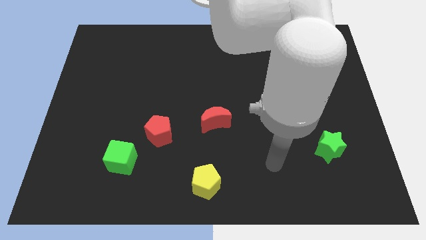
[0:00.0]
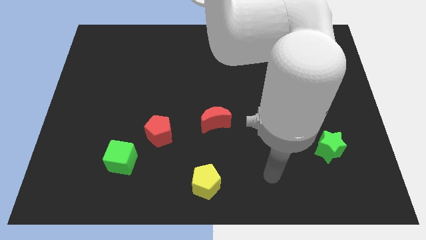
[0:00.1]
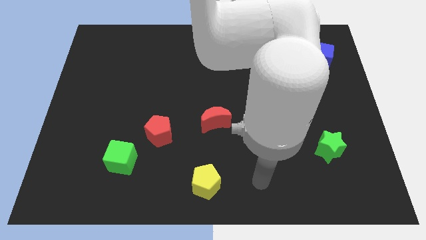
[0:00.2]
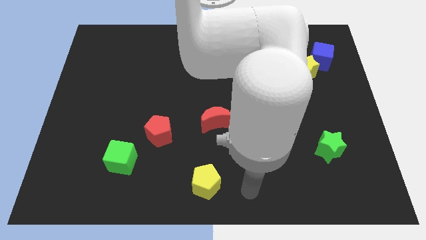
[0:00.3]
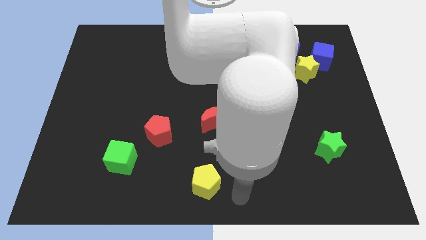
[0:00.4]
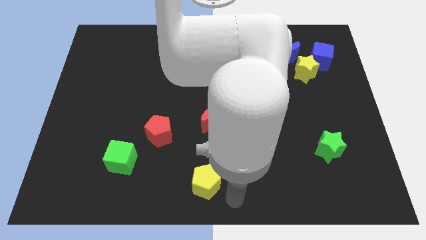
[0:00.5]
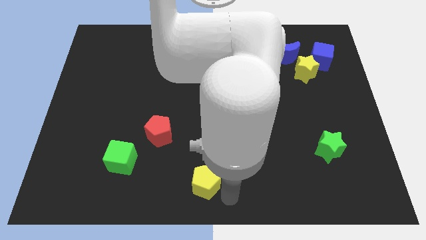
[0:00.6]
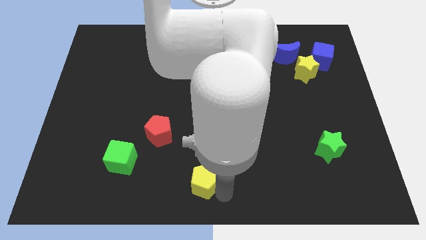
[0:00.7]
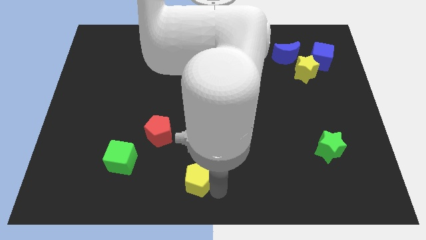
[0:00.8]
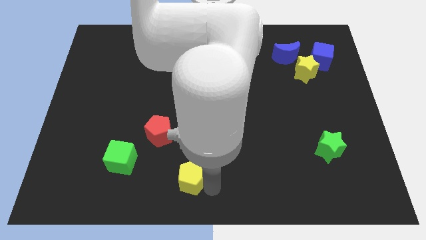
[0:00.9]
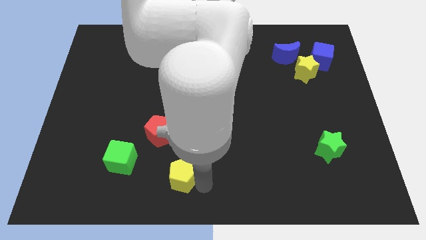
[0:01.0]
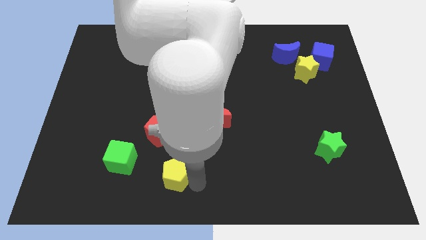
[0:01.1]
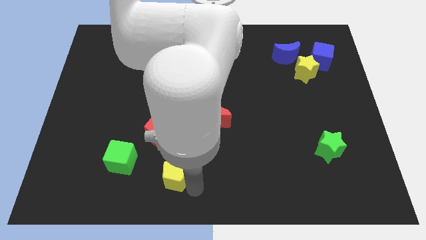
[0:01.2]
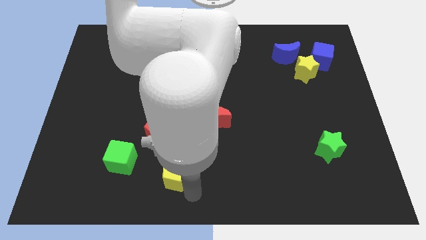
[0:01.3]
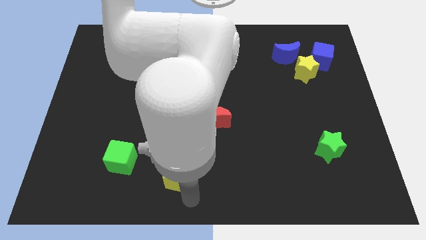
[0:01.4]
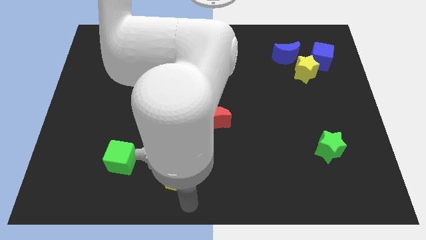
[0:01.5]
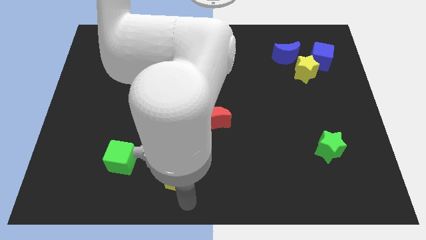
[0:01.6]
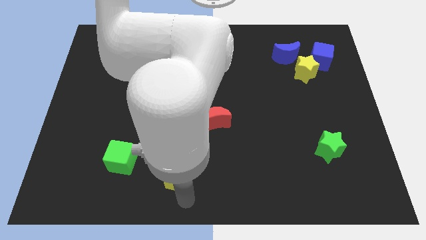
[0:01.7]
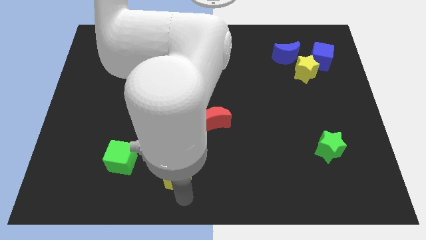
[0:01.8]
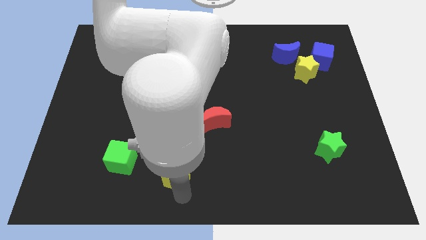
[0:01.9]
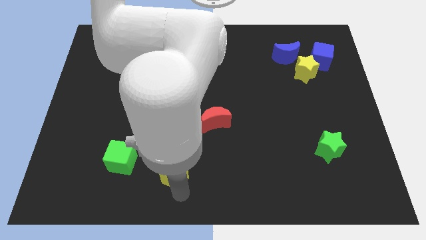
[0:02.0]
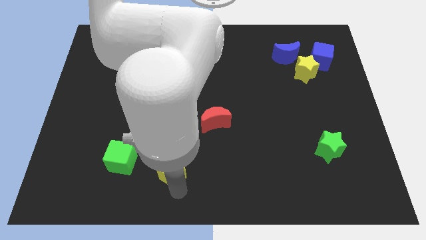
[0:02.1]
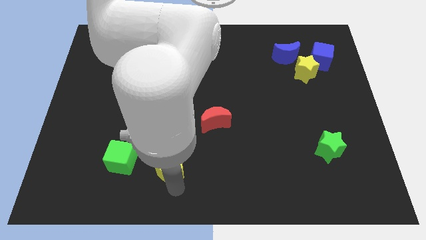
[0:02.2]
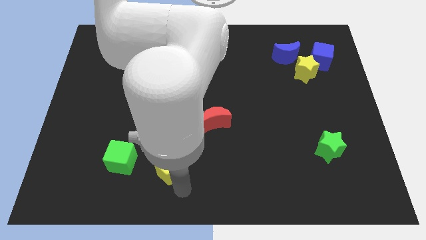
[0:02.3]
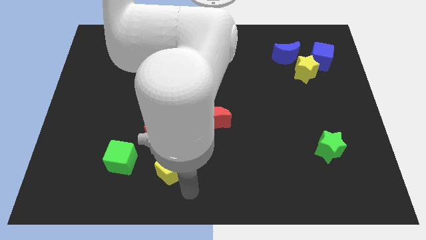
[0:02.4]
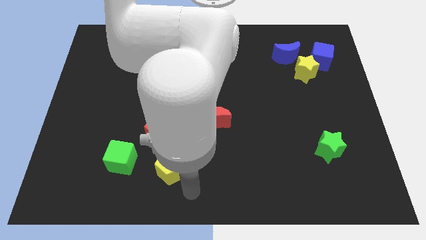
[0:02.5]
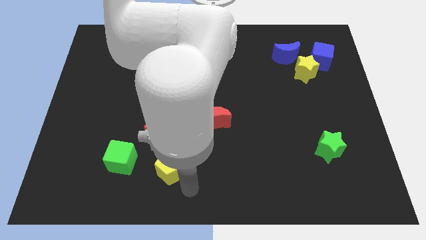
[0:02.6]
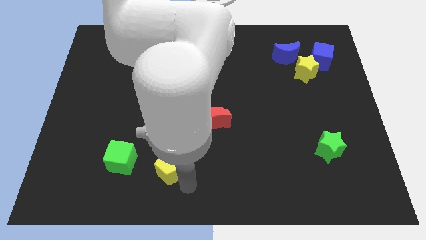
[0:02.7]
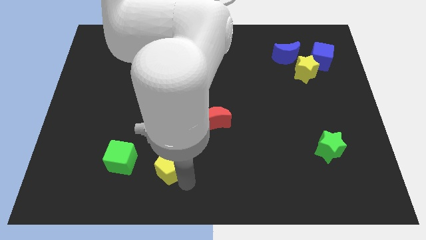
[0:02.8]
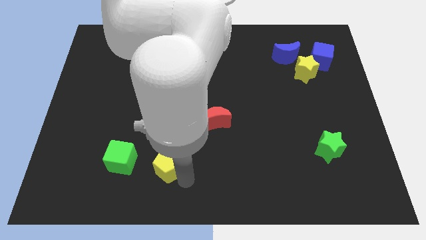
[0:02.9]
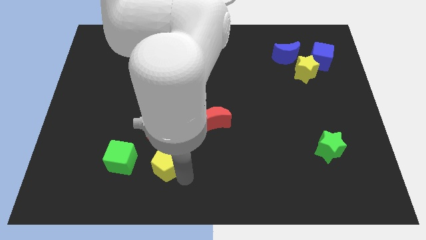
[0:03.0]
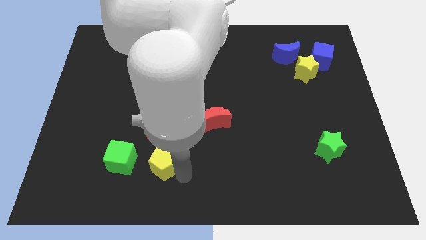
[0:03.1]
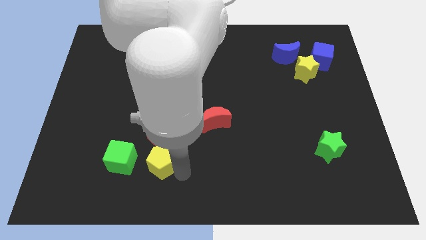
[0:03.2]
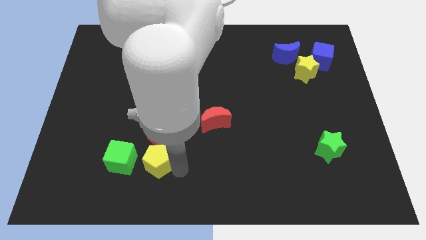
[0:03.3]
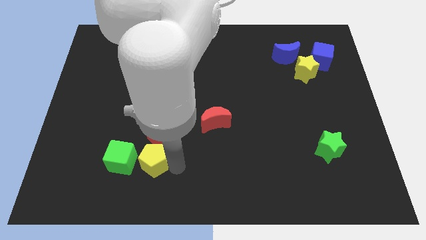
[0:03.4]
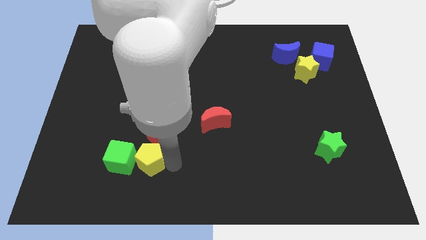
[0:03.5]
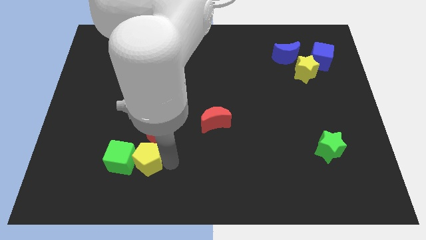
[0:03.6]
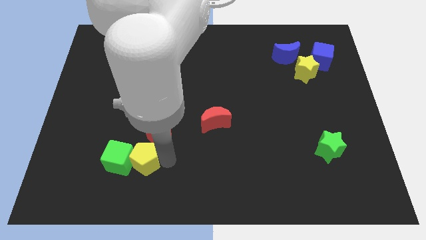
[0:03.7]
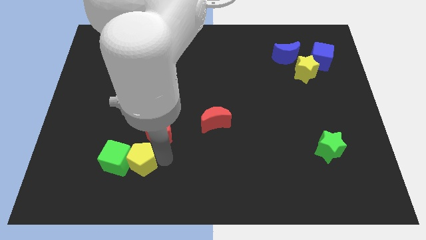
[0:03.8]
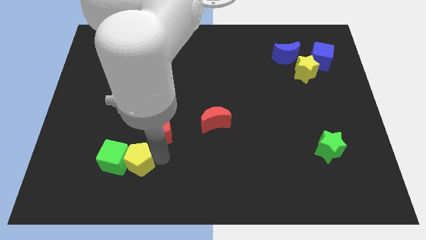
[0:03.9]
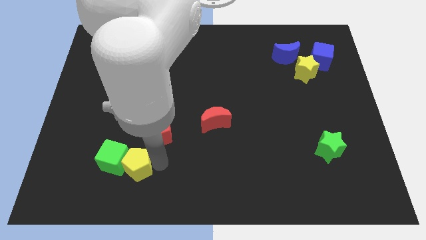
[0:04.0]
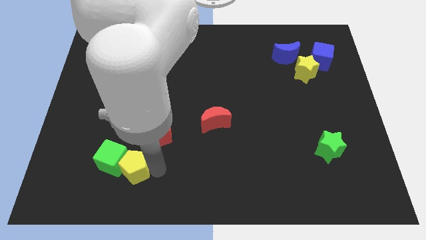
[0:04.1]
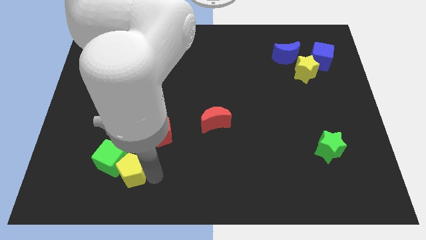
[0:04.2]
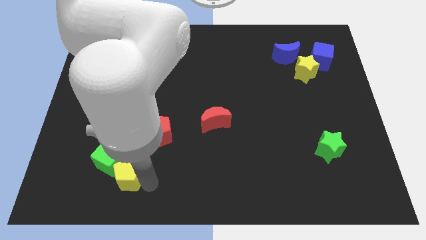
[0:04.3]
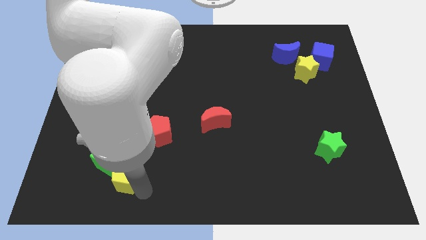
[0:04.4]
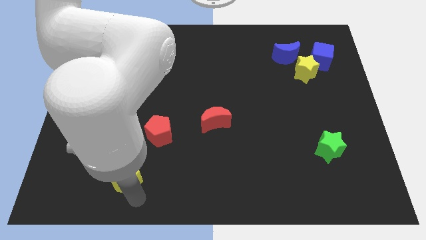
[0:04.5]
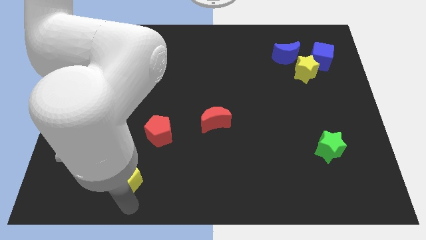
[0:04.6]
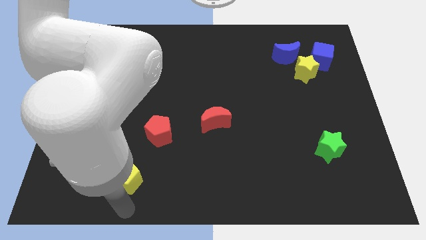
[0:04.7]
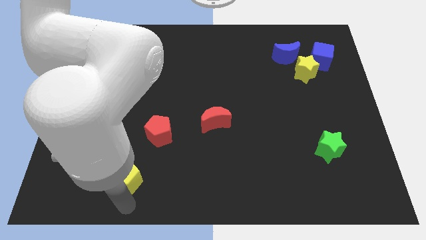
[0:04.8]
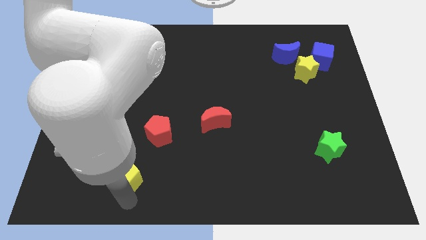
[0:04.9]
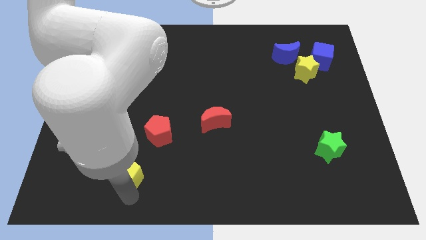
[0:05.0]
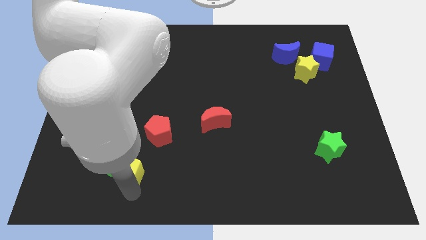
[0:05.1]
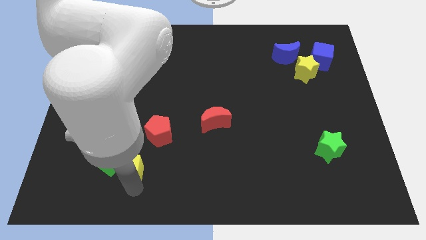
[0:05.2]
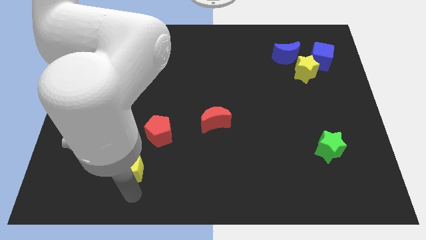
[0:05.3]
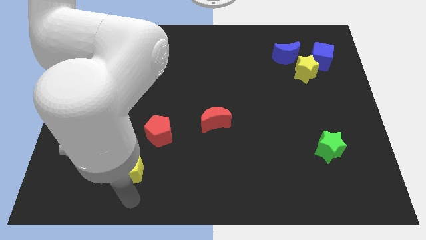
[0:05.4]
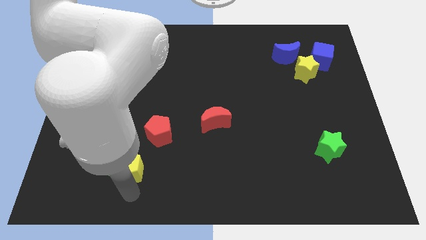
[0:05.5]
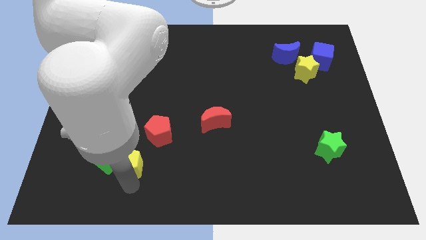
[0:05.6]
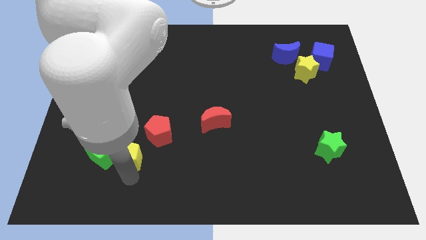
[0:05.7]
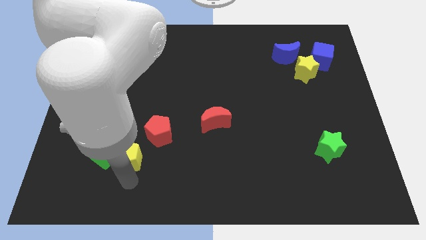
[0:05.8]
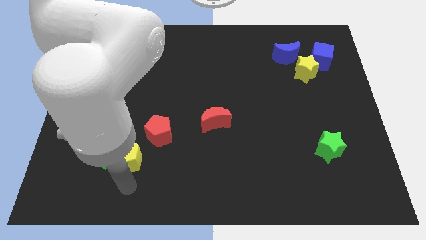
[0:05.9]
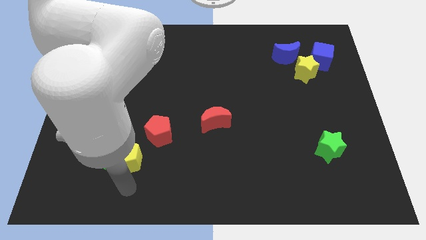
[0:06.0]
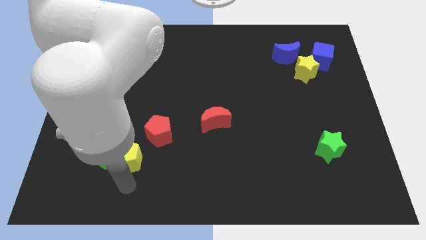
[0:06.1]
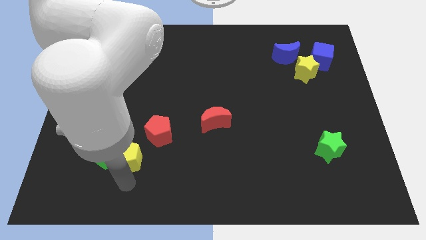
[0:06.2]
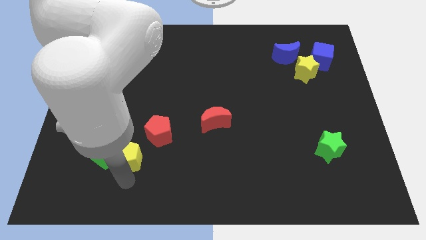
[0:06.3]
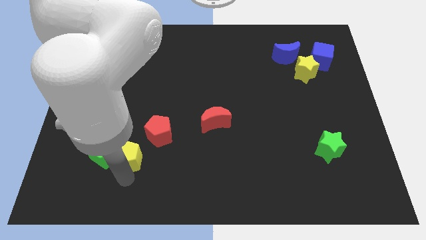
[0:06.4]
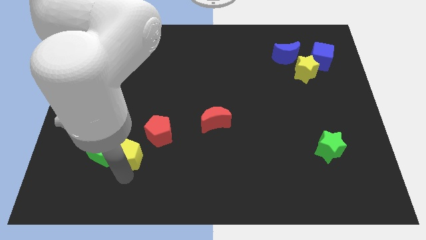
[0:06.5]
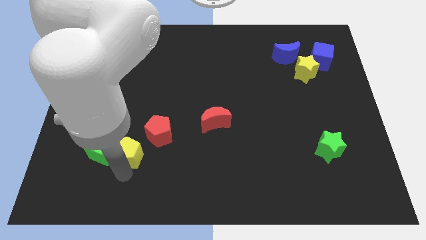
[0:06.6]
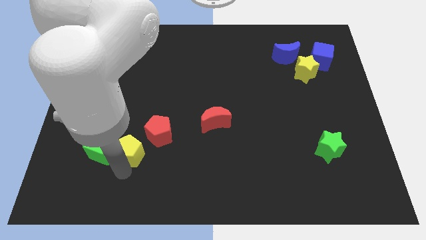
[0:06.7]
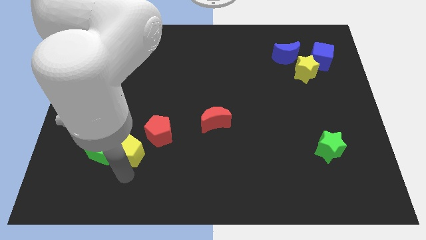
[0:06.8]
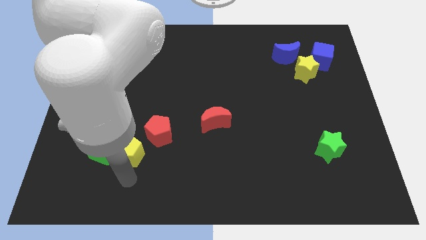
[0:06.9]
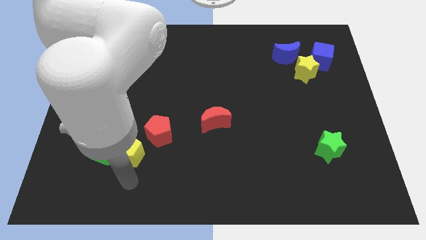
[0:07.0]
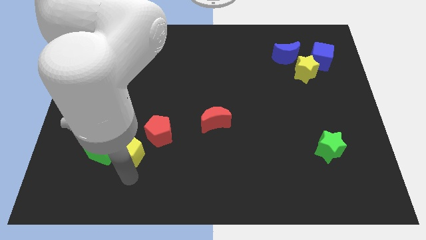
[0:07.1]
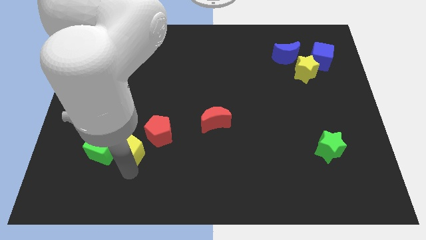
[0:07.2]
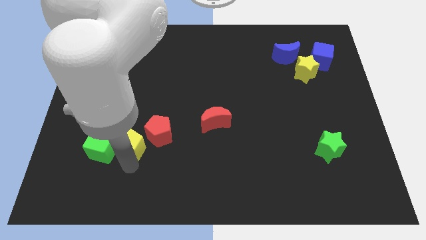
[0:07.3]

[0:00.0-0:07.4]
move the yellow pentagon just left of the red pentagon
